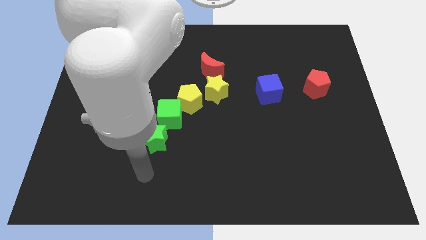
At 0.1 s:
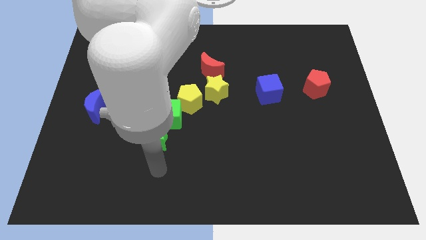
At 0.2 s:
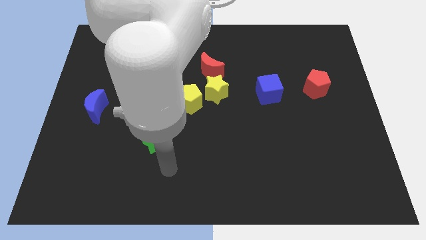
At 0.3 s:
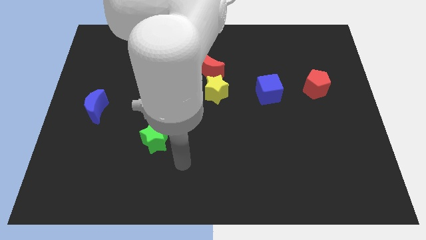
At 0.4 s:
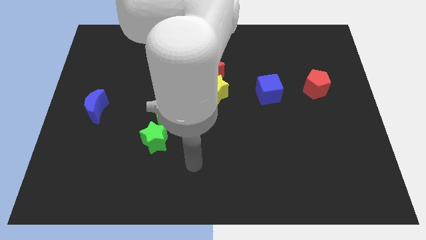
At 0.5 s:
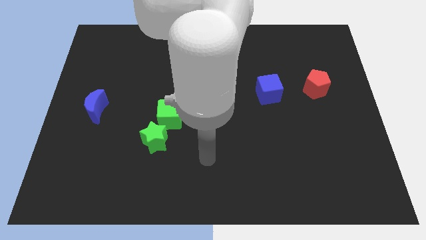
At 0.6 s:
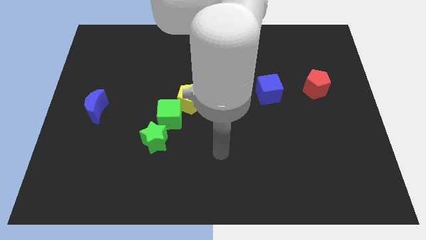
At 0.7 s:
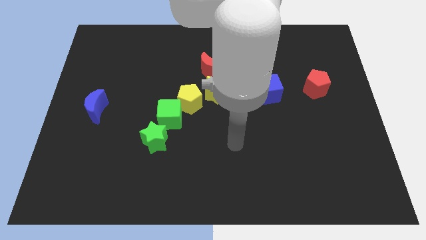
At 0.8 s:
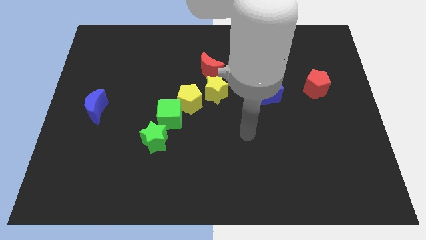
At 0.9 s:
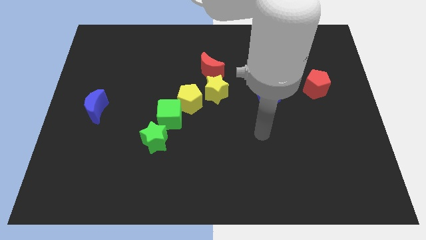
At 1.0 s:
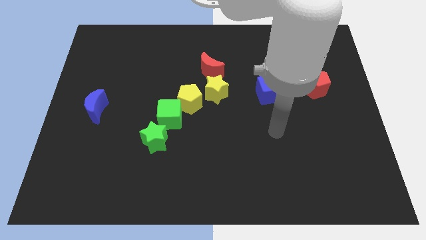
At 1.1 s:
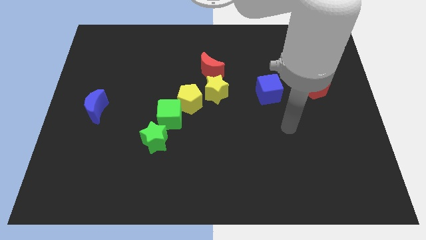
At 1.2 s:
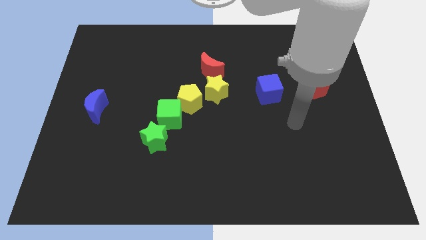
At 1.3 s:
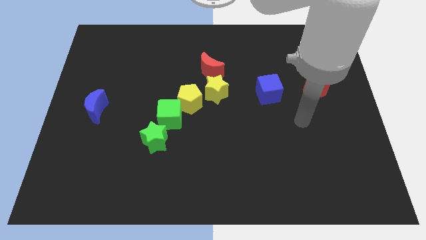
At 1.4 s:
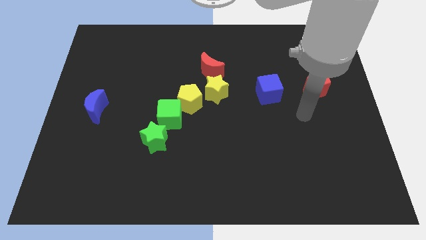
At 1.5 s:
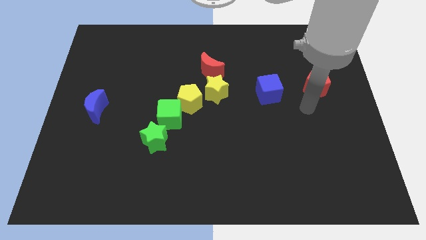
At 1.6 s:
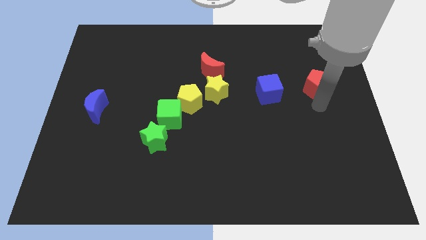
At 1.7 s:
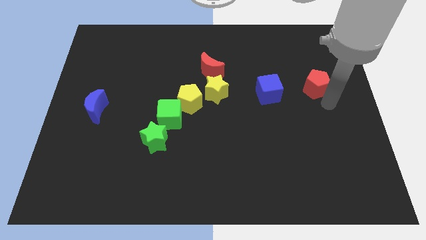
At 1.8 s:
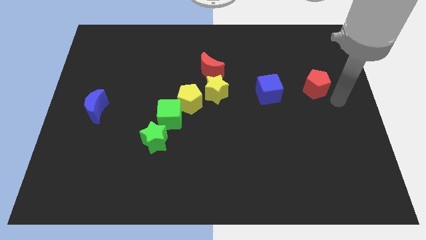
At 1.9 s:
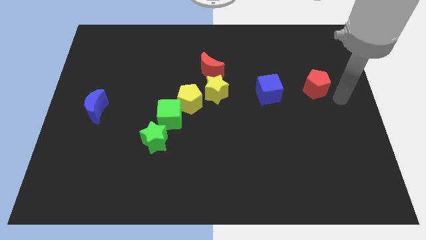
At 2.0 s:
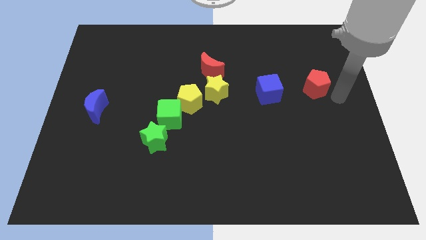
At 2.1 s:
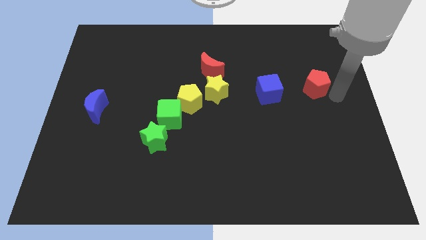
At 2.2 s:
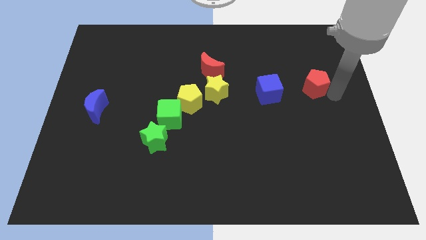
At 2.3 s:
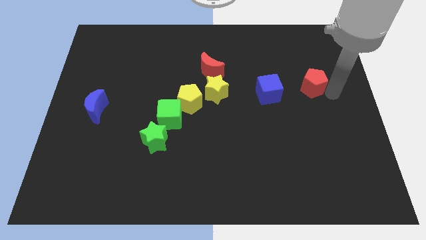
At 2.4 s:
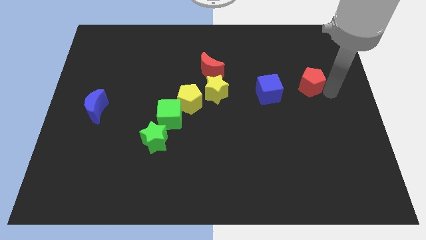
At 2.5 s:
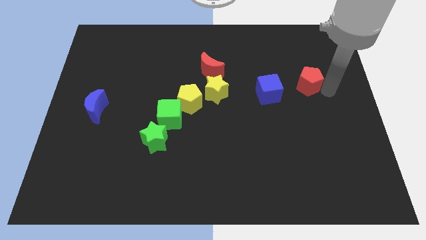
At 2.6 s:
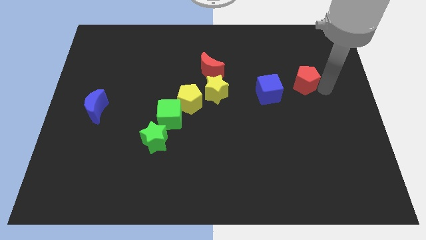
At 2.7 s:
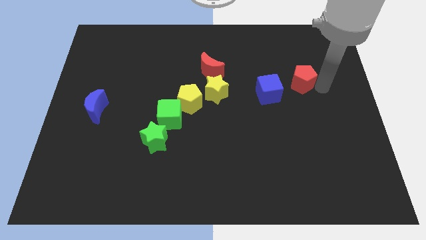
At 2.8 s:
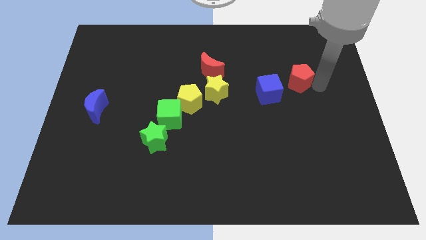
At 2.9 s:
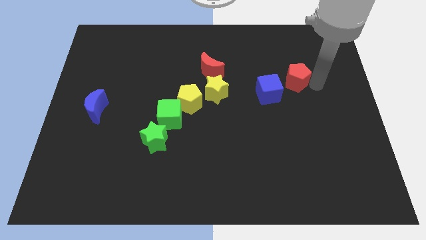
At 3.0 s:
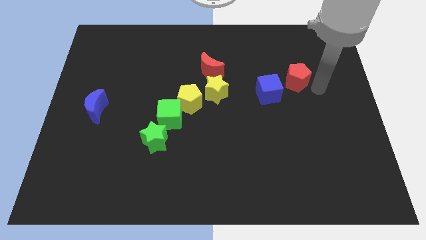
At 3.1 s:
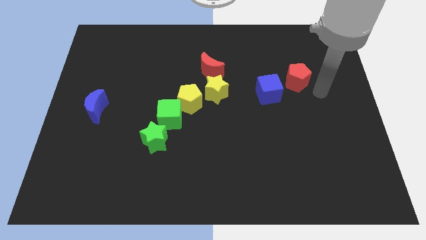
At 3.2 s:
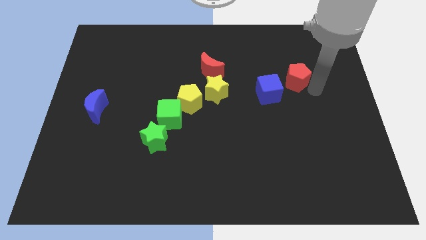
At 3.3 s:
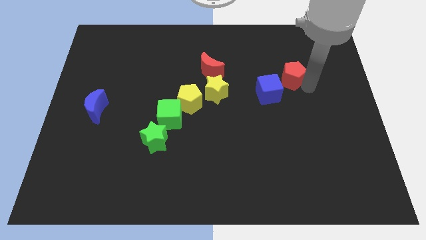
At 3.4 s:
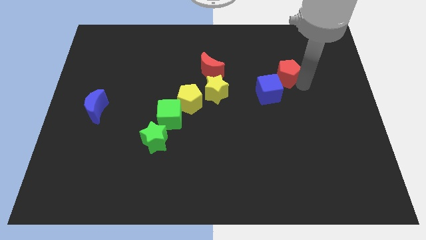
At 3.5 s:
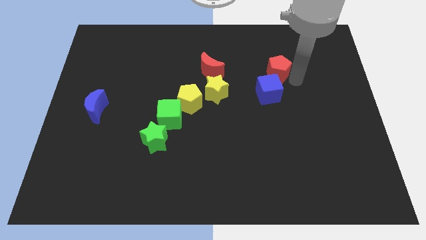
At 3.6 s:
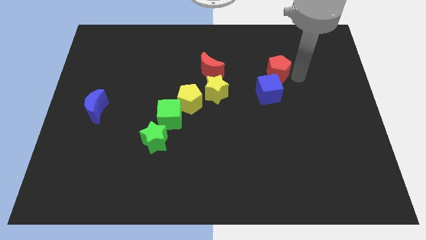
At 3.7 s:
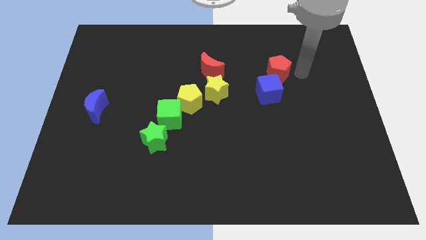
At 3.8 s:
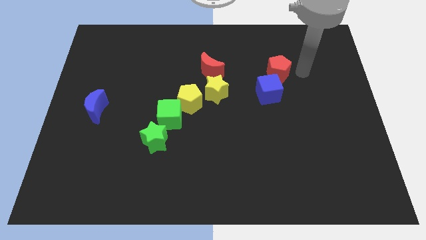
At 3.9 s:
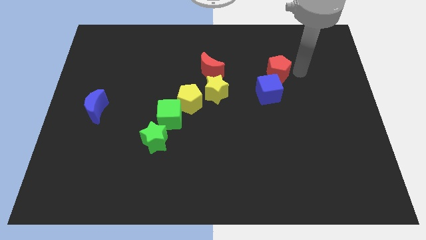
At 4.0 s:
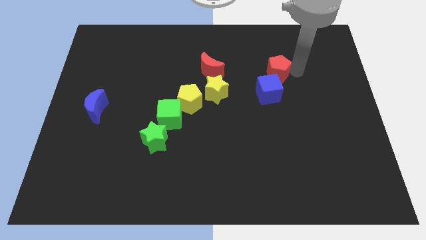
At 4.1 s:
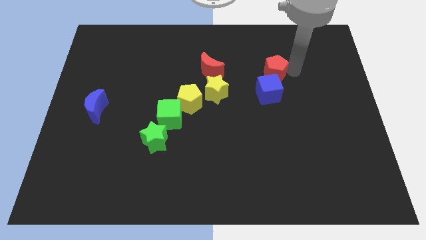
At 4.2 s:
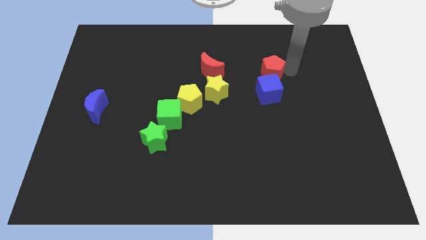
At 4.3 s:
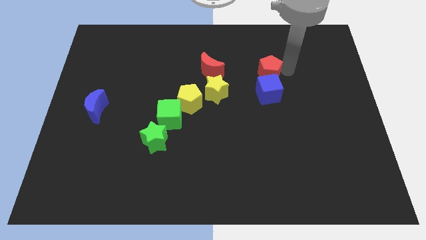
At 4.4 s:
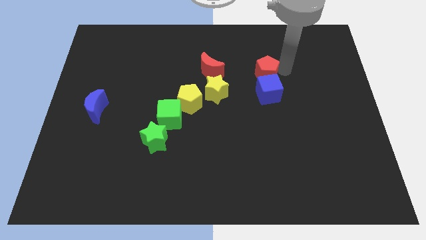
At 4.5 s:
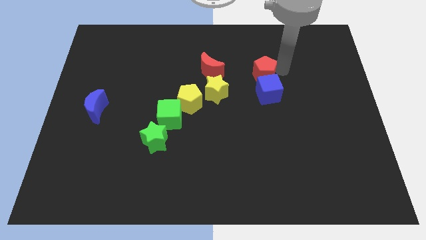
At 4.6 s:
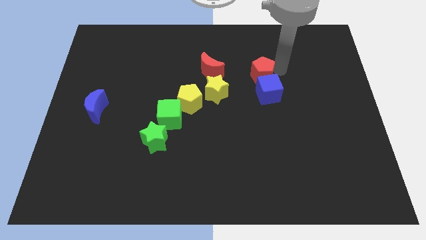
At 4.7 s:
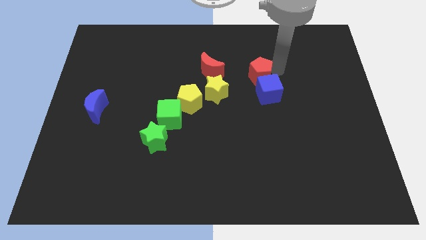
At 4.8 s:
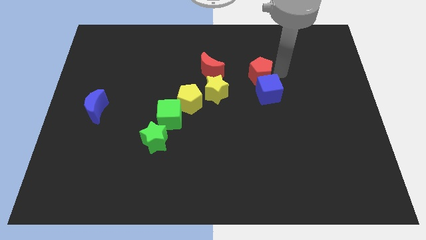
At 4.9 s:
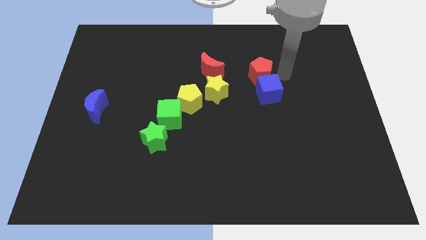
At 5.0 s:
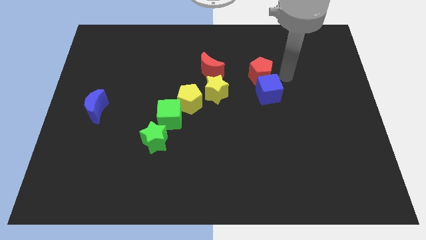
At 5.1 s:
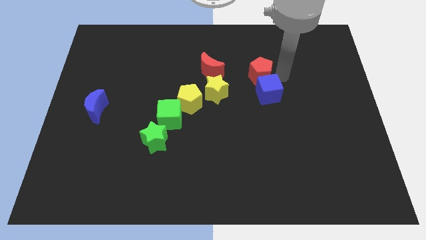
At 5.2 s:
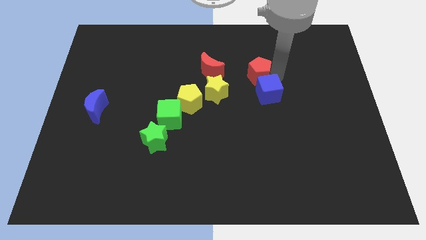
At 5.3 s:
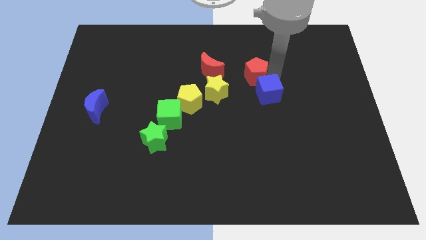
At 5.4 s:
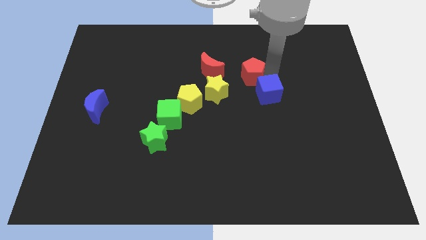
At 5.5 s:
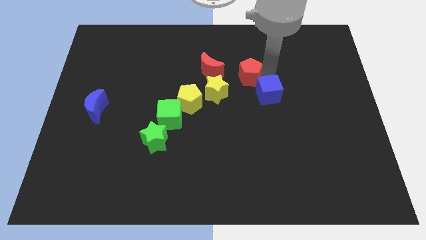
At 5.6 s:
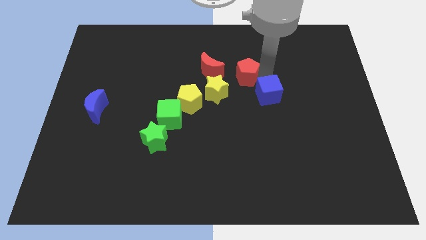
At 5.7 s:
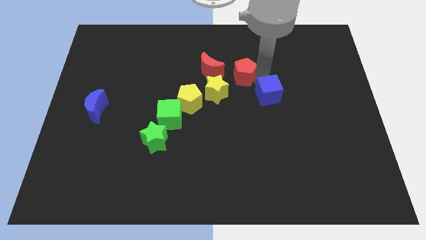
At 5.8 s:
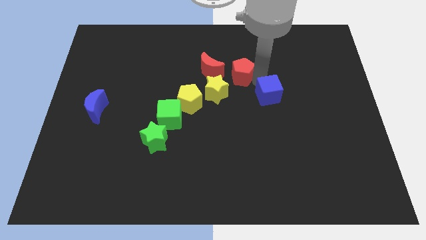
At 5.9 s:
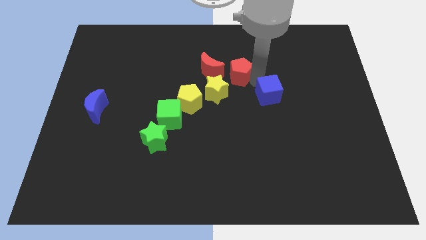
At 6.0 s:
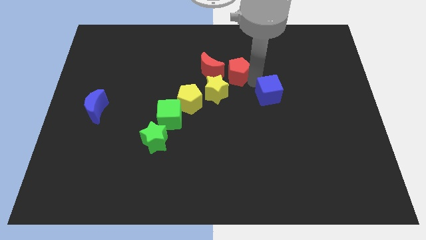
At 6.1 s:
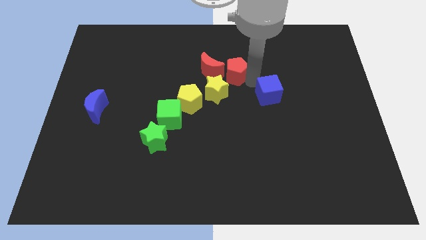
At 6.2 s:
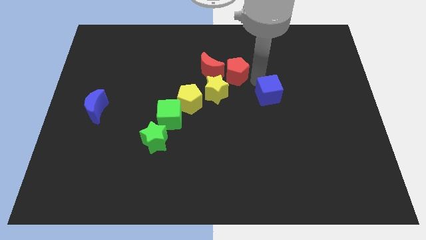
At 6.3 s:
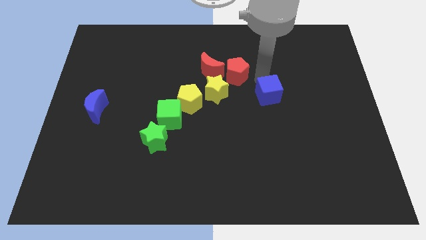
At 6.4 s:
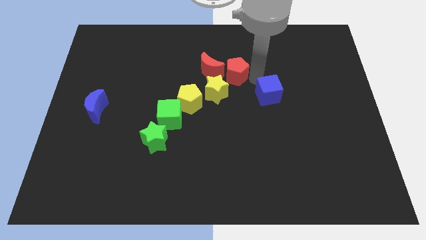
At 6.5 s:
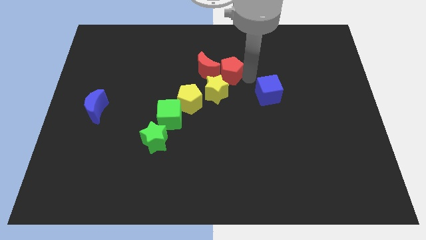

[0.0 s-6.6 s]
slide the red pentagon next to the red moon

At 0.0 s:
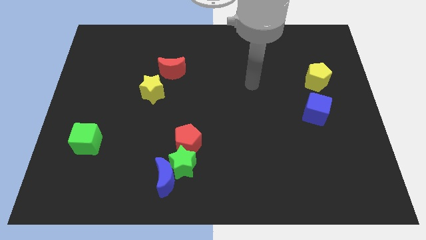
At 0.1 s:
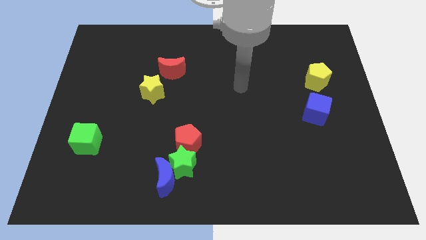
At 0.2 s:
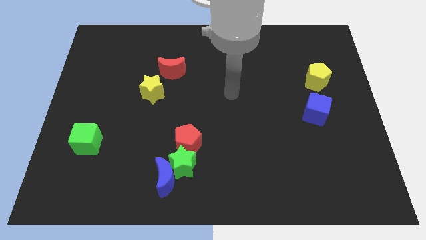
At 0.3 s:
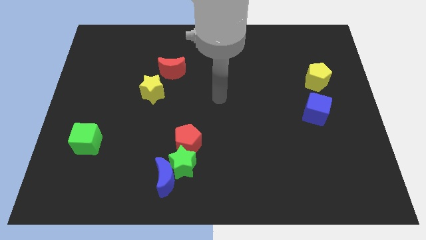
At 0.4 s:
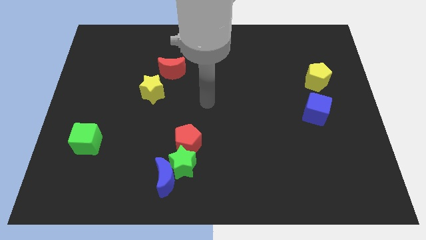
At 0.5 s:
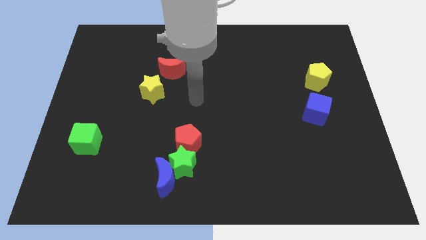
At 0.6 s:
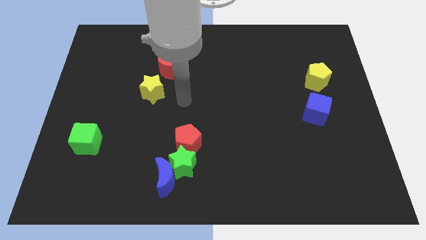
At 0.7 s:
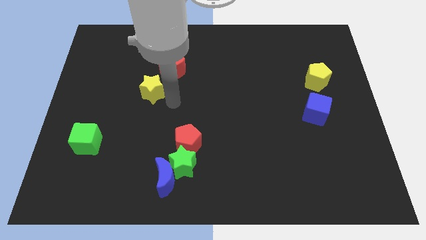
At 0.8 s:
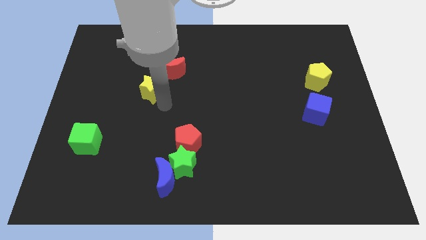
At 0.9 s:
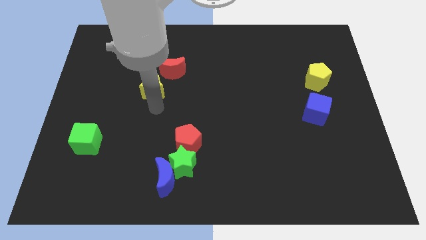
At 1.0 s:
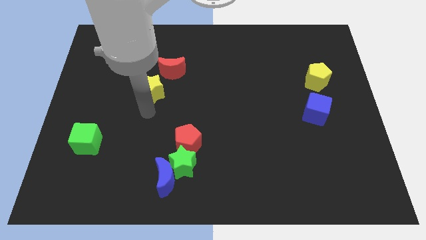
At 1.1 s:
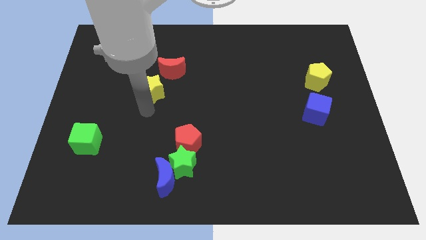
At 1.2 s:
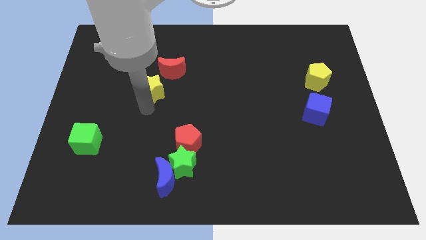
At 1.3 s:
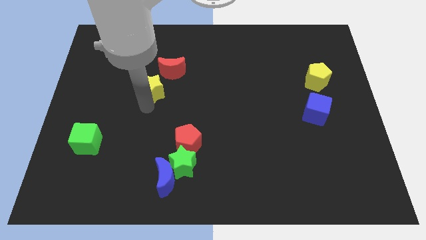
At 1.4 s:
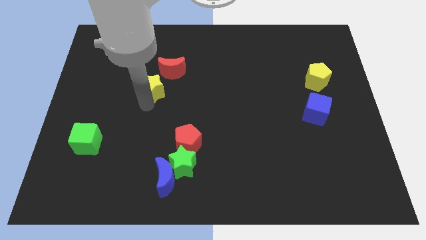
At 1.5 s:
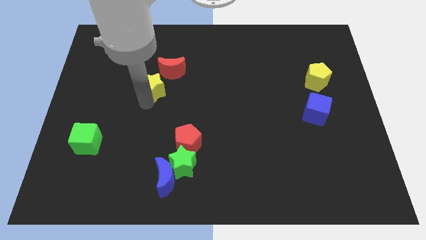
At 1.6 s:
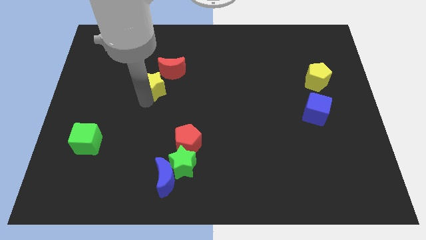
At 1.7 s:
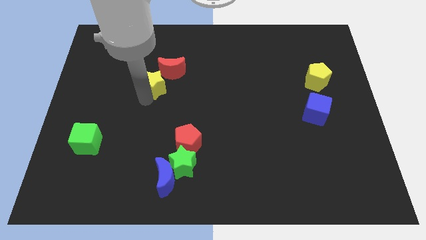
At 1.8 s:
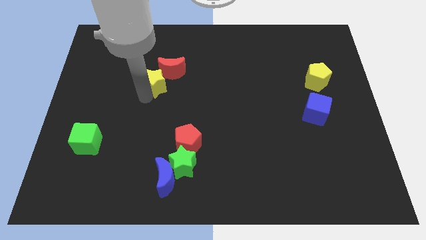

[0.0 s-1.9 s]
put the yellow star to the red moon
